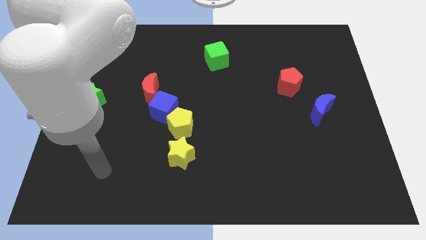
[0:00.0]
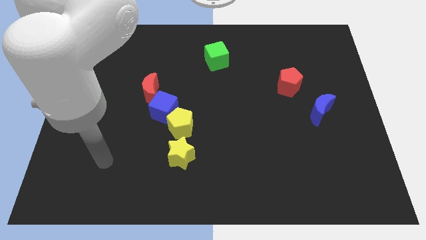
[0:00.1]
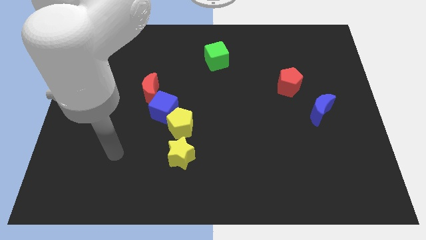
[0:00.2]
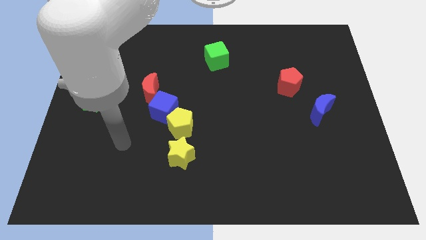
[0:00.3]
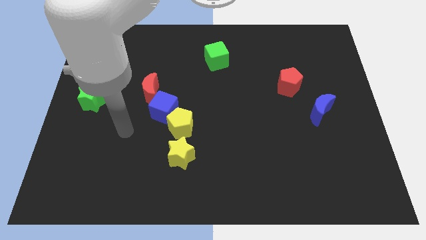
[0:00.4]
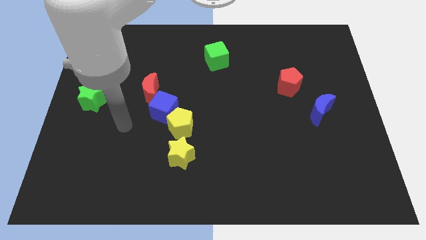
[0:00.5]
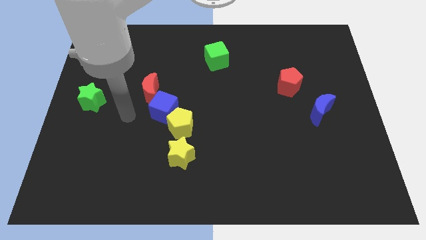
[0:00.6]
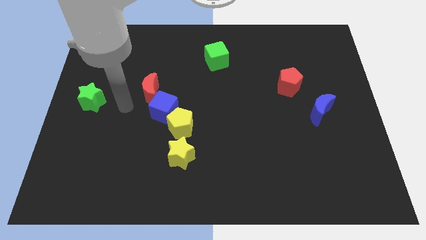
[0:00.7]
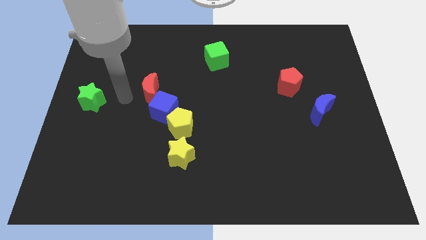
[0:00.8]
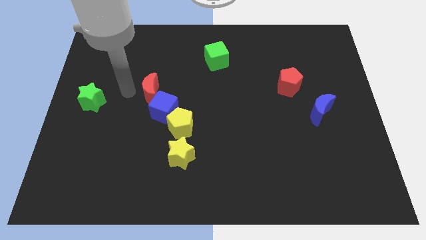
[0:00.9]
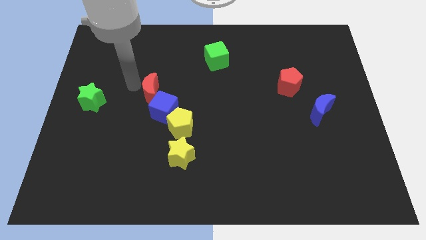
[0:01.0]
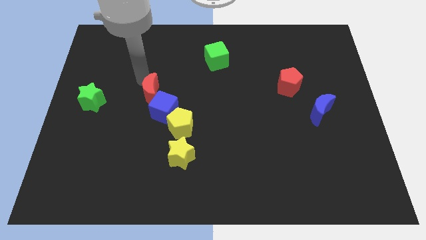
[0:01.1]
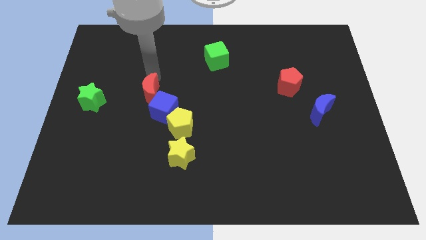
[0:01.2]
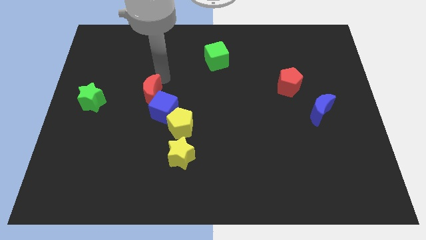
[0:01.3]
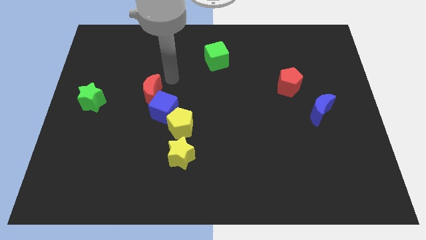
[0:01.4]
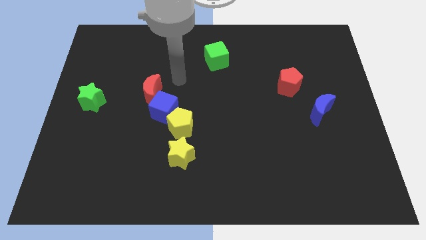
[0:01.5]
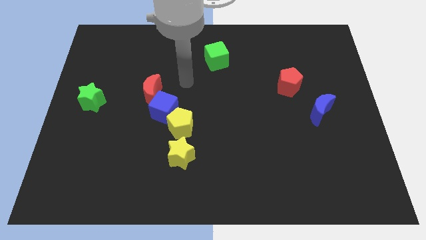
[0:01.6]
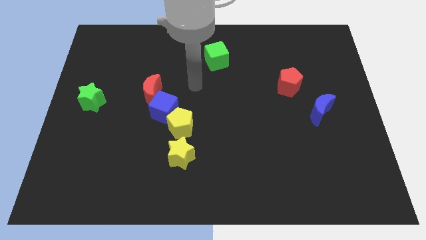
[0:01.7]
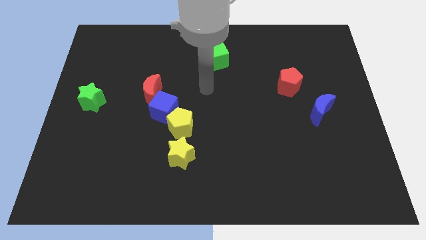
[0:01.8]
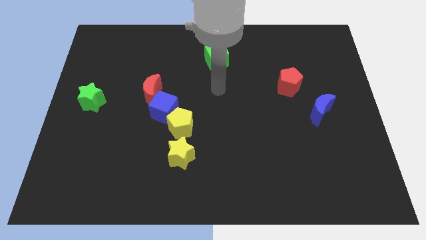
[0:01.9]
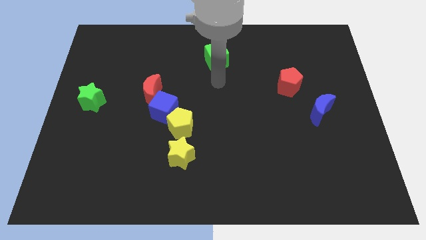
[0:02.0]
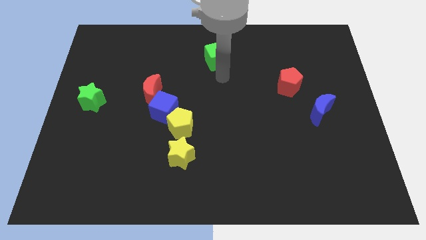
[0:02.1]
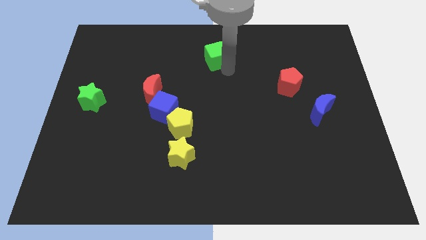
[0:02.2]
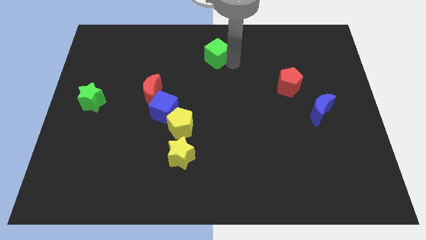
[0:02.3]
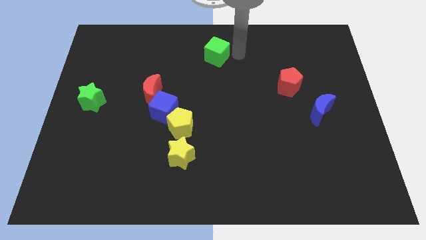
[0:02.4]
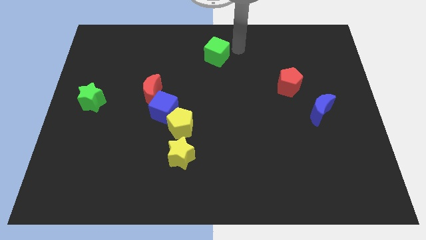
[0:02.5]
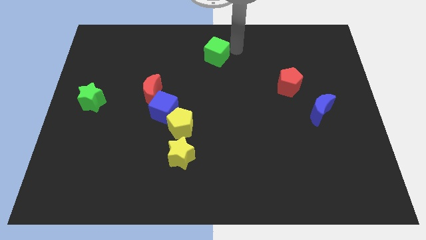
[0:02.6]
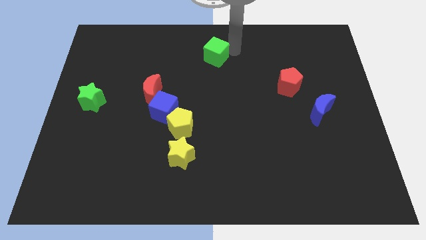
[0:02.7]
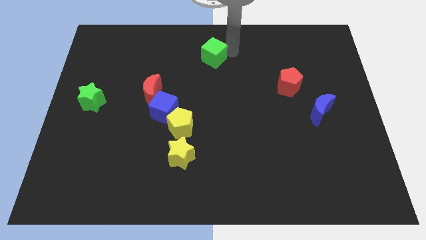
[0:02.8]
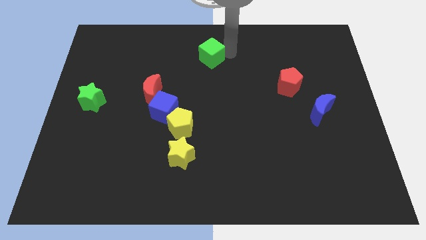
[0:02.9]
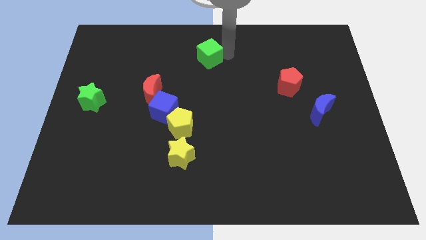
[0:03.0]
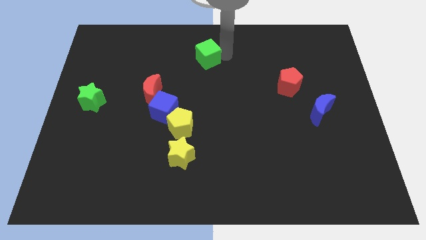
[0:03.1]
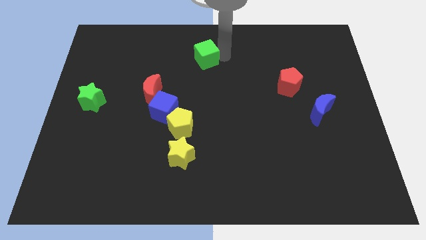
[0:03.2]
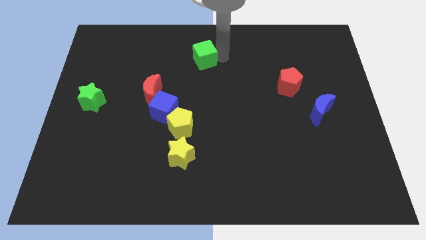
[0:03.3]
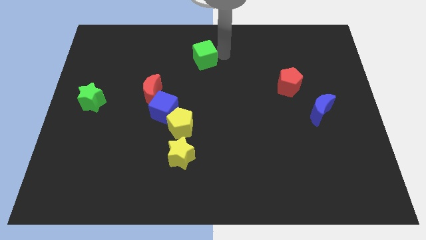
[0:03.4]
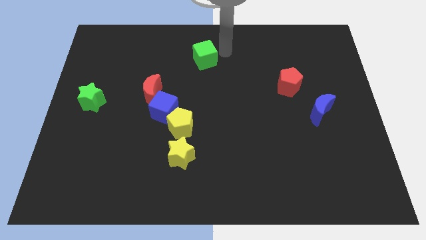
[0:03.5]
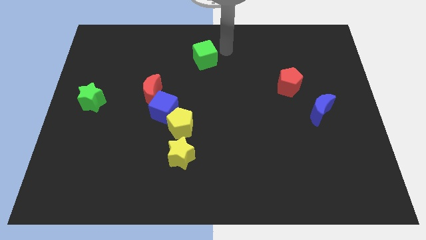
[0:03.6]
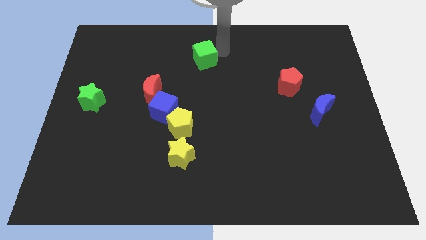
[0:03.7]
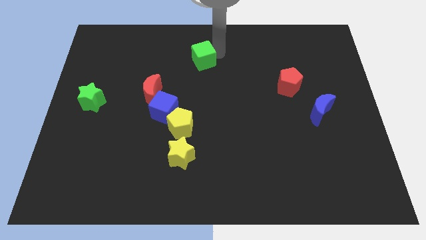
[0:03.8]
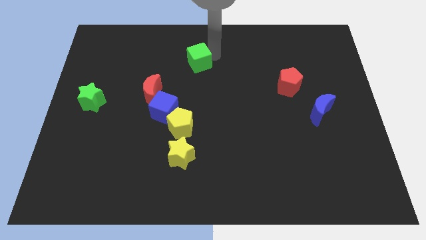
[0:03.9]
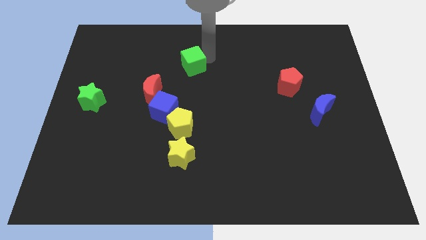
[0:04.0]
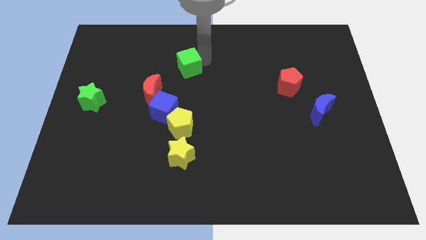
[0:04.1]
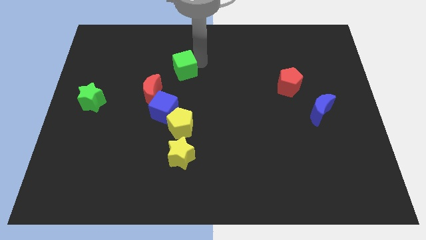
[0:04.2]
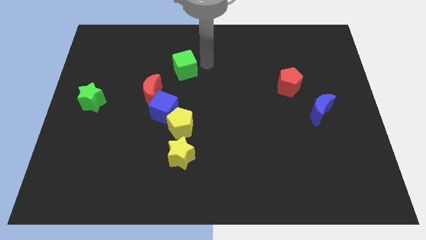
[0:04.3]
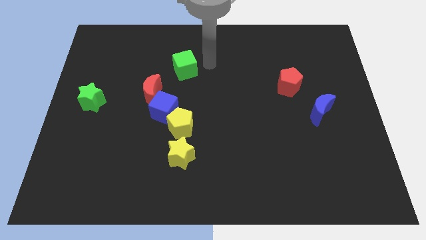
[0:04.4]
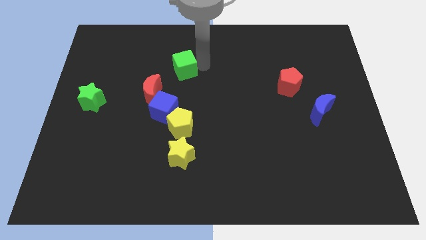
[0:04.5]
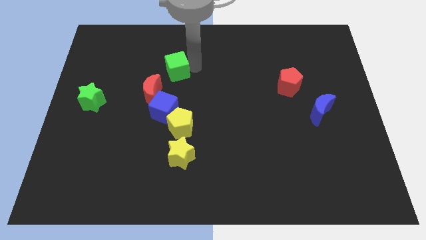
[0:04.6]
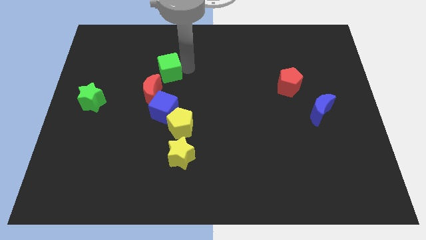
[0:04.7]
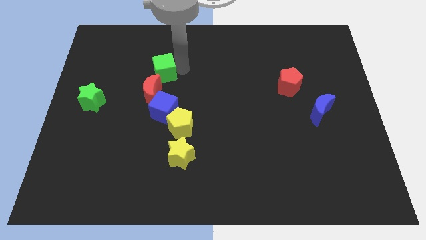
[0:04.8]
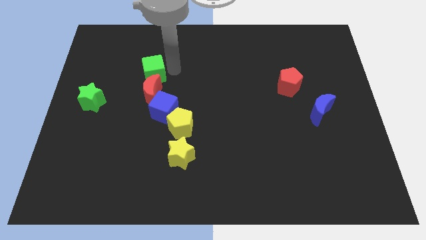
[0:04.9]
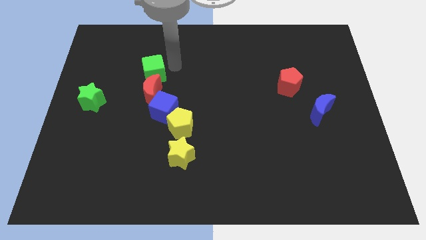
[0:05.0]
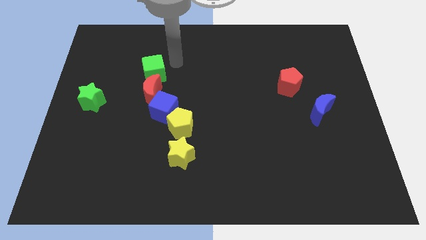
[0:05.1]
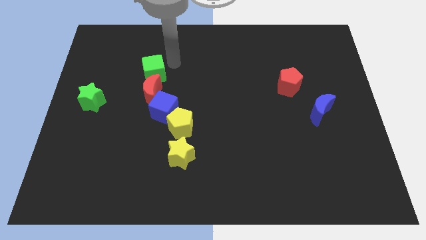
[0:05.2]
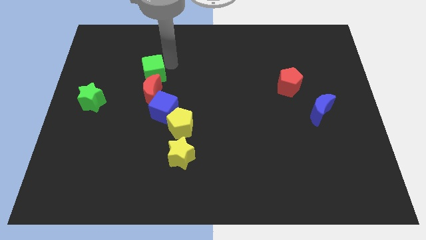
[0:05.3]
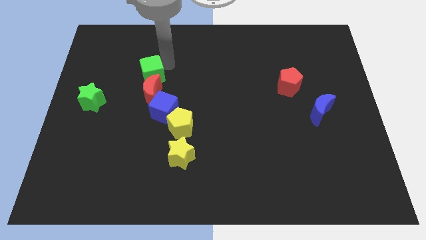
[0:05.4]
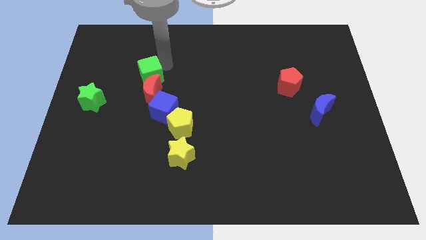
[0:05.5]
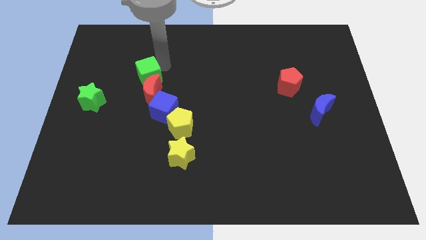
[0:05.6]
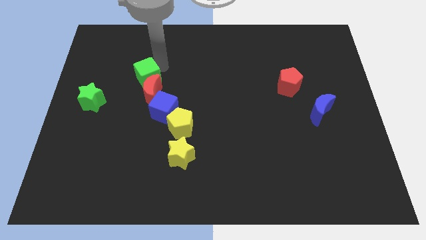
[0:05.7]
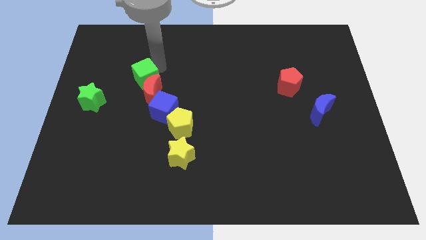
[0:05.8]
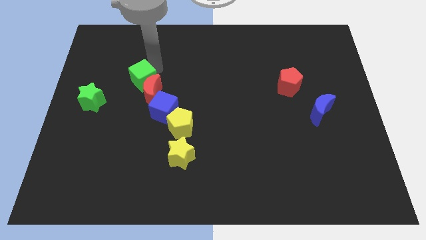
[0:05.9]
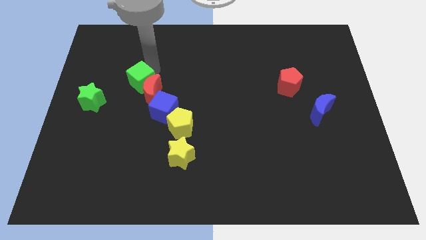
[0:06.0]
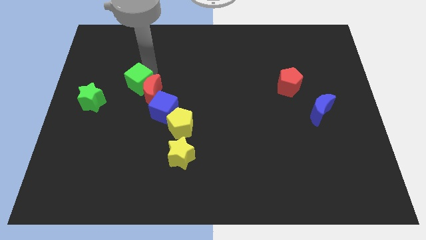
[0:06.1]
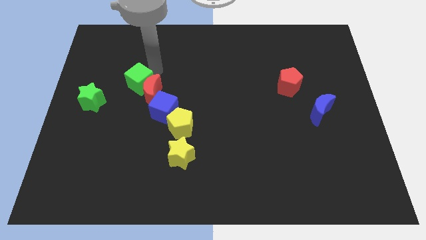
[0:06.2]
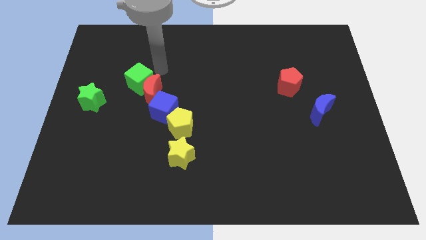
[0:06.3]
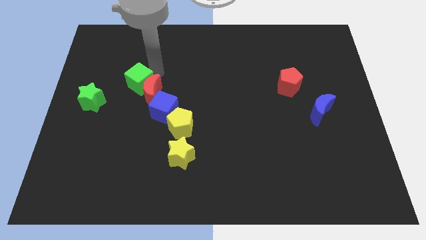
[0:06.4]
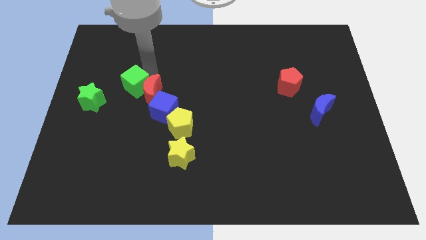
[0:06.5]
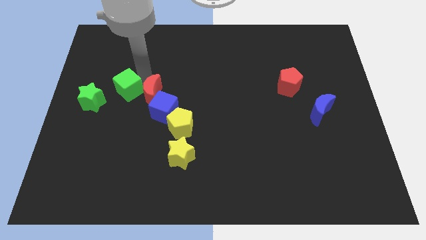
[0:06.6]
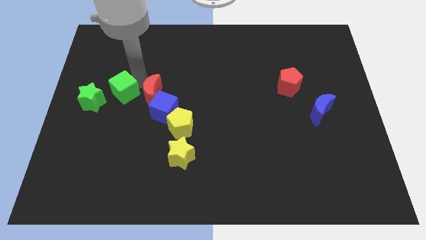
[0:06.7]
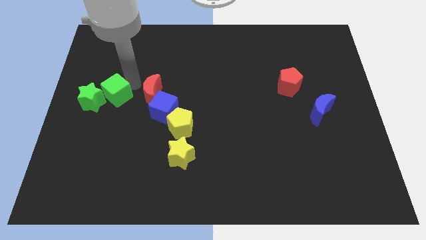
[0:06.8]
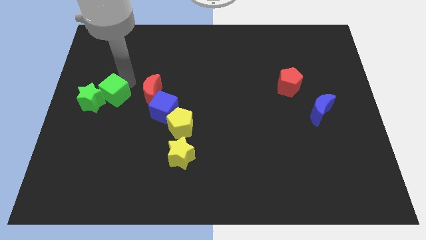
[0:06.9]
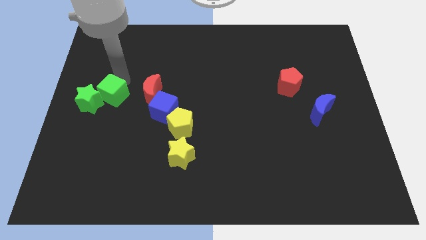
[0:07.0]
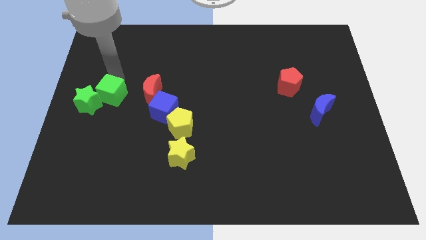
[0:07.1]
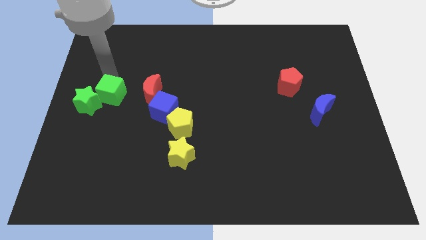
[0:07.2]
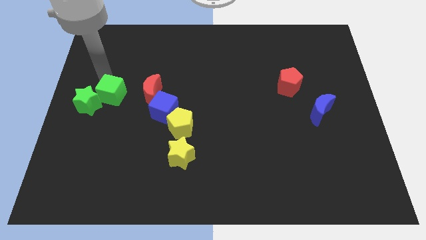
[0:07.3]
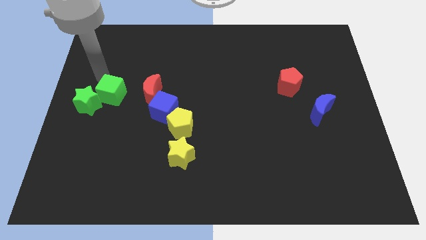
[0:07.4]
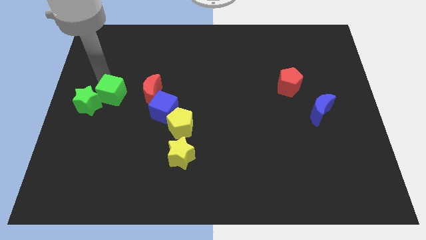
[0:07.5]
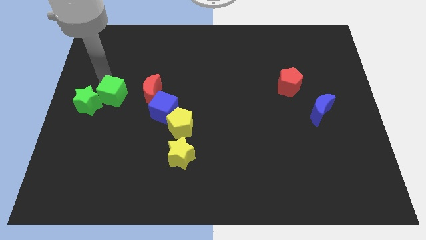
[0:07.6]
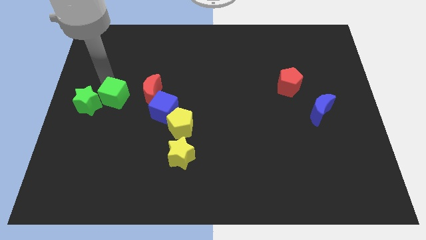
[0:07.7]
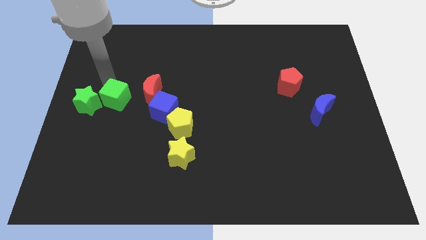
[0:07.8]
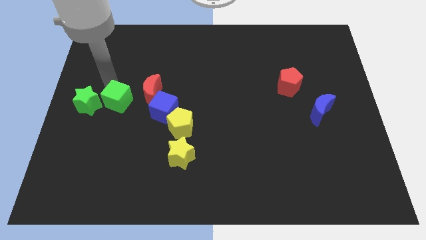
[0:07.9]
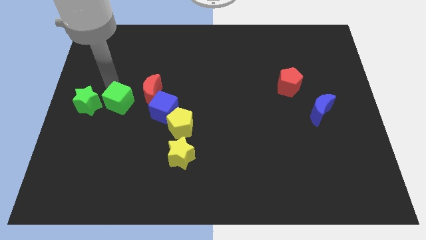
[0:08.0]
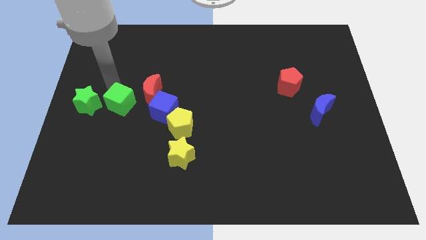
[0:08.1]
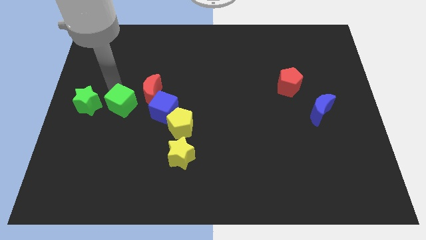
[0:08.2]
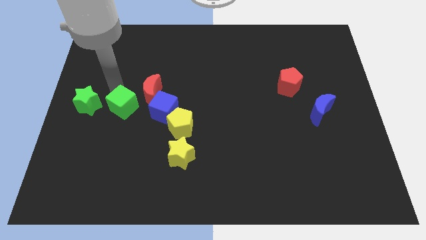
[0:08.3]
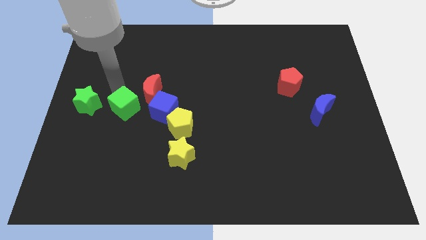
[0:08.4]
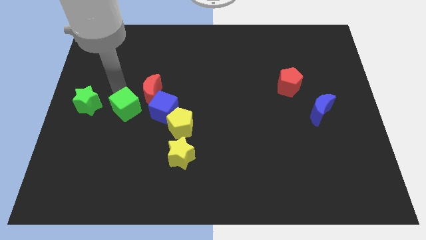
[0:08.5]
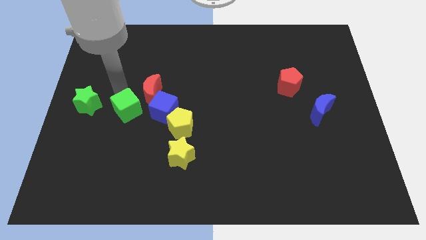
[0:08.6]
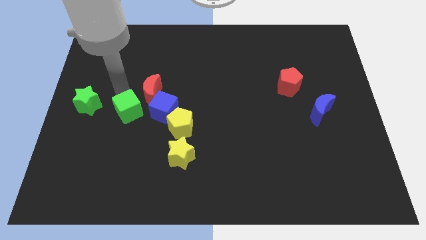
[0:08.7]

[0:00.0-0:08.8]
put the green cube to the bottom of the red moon
